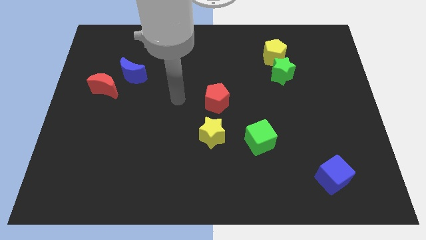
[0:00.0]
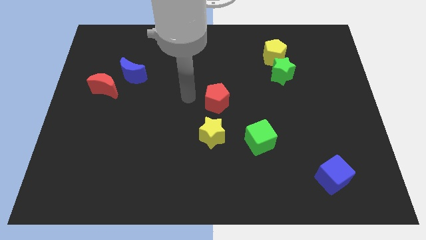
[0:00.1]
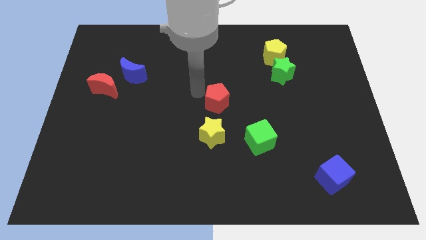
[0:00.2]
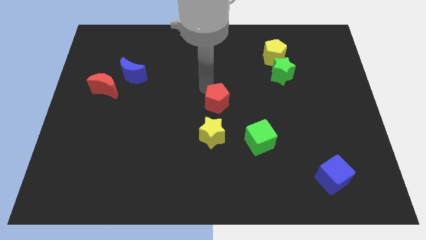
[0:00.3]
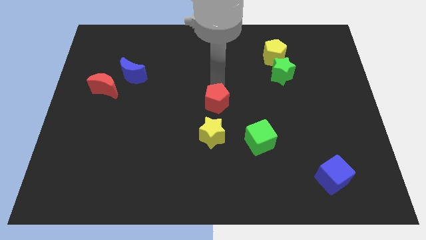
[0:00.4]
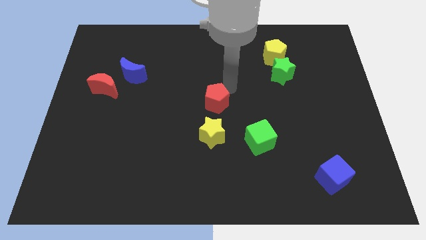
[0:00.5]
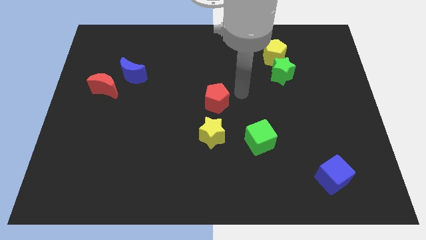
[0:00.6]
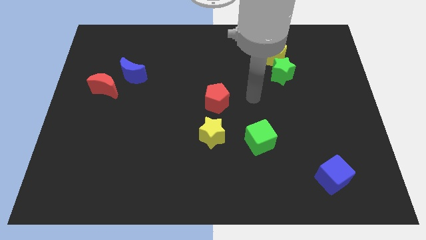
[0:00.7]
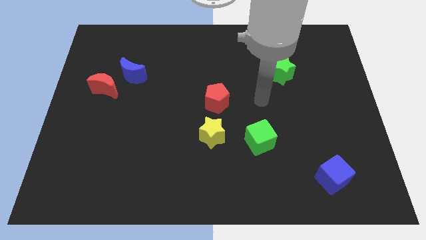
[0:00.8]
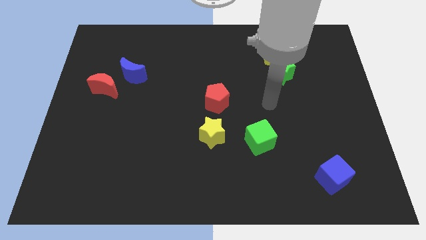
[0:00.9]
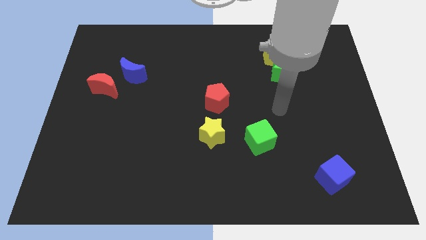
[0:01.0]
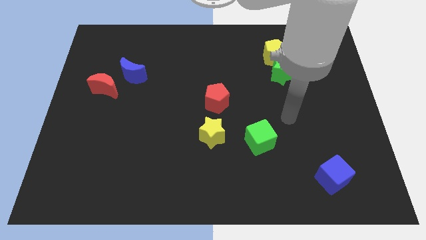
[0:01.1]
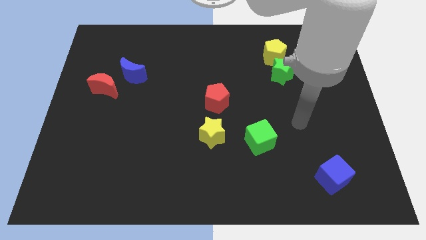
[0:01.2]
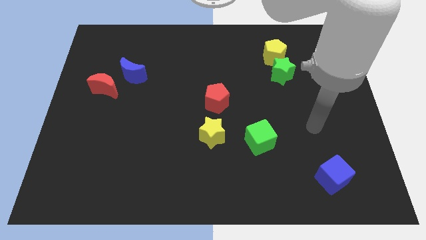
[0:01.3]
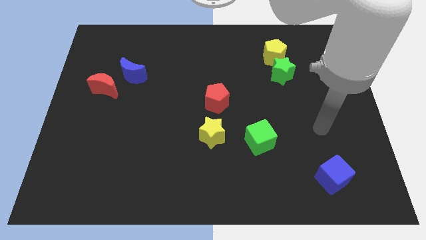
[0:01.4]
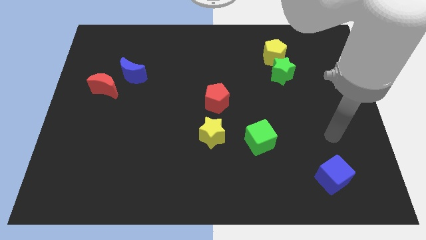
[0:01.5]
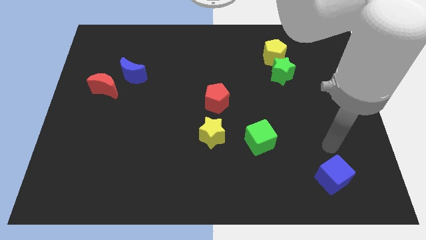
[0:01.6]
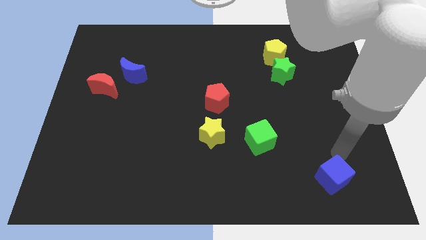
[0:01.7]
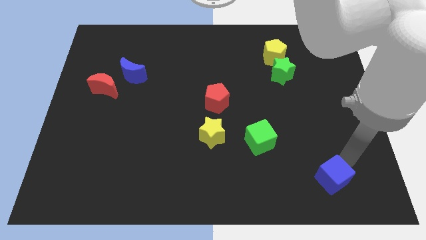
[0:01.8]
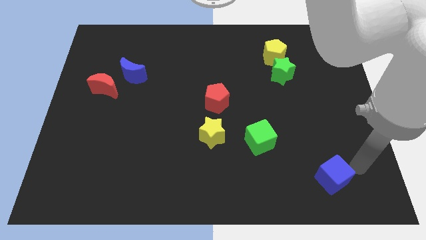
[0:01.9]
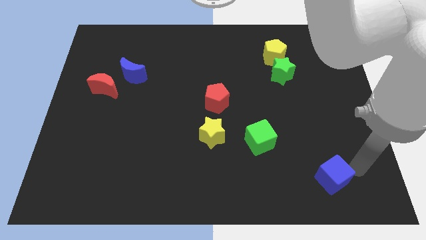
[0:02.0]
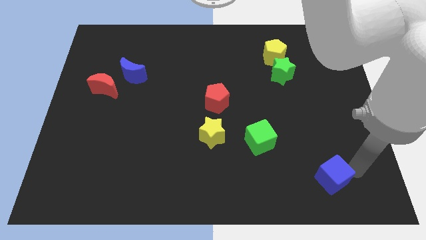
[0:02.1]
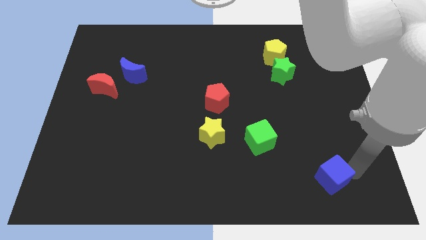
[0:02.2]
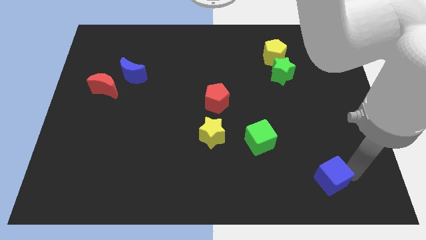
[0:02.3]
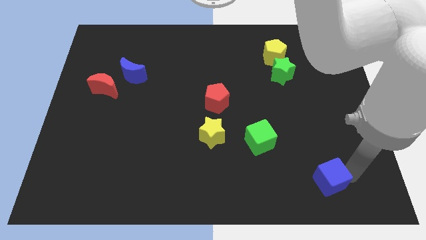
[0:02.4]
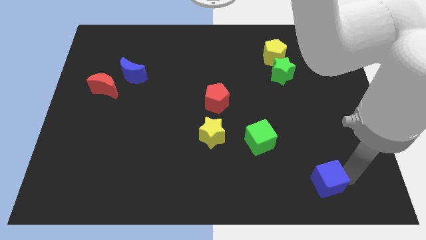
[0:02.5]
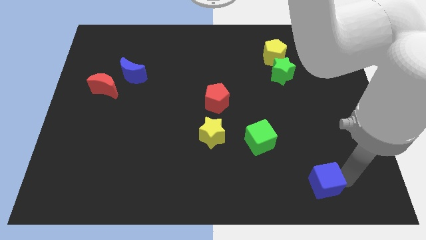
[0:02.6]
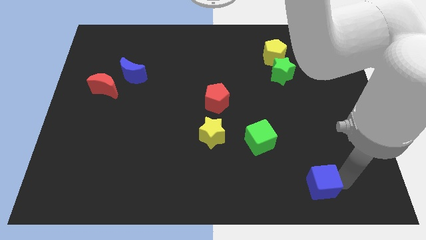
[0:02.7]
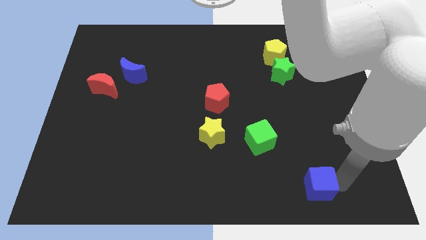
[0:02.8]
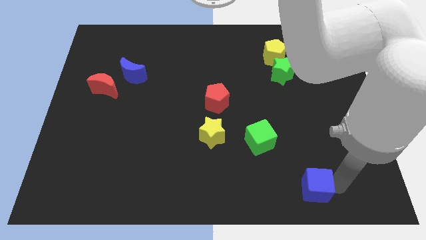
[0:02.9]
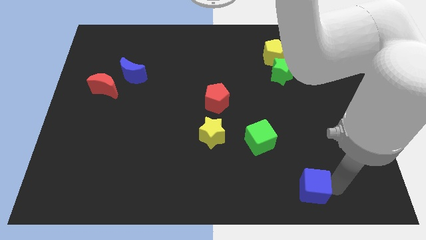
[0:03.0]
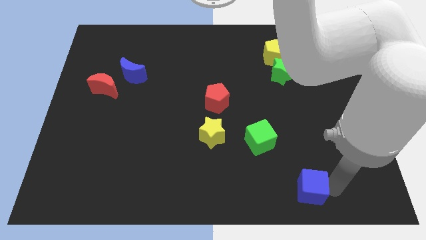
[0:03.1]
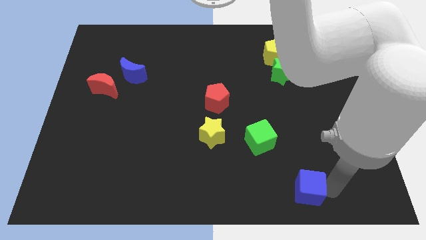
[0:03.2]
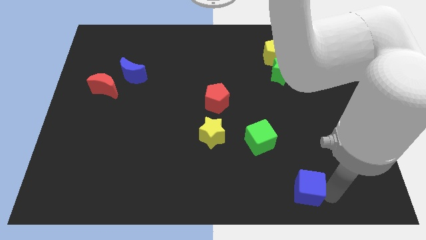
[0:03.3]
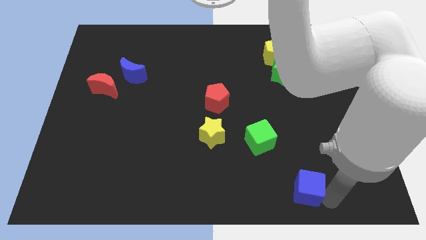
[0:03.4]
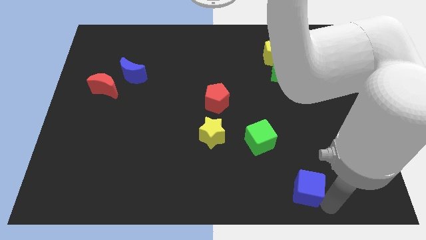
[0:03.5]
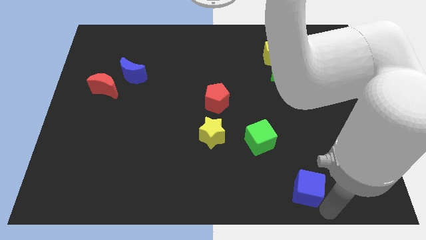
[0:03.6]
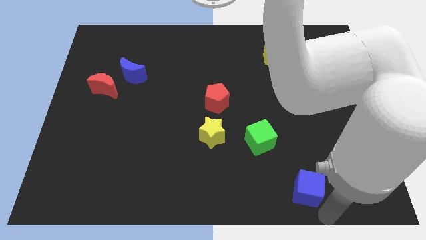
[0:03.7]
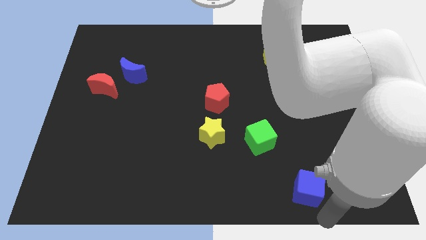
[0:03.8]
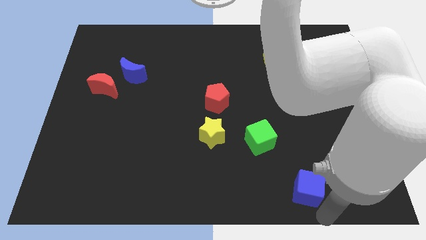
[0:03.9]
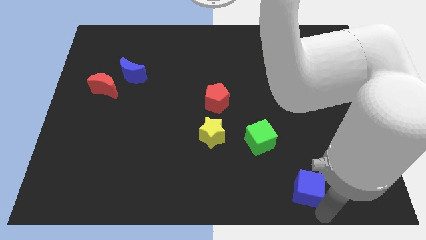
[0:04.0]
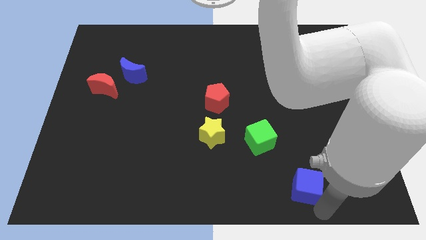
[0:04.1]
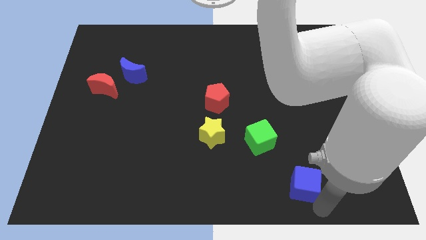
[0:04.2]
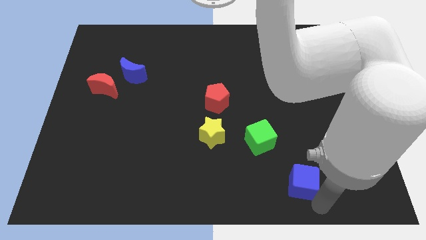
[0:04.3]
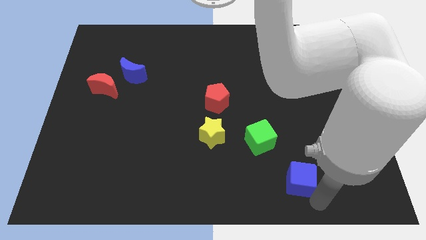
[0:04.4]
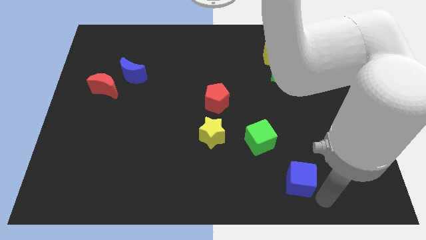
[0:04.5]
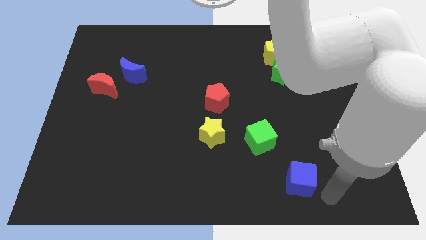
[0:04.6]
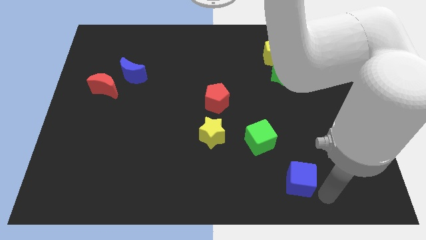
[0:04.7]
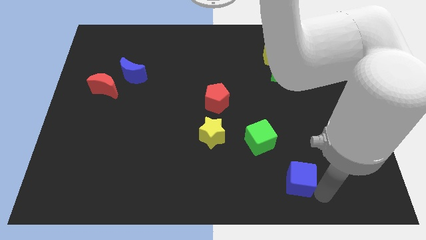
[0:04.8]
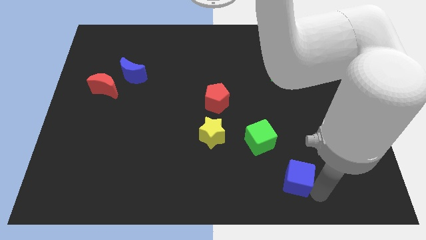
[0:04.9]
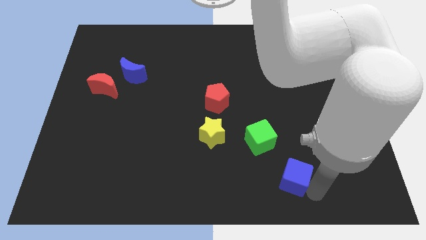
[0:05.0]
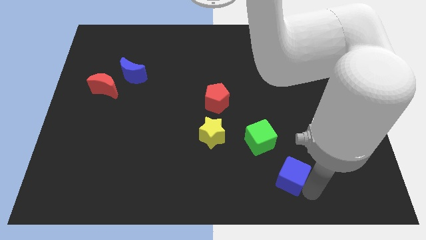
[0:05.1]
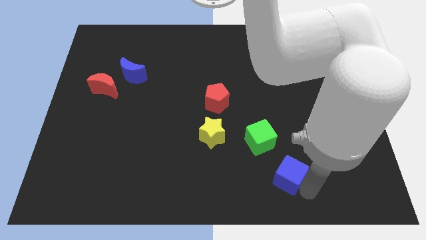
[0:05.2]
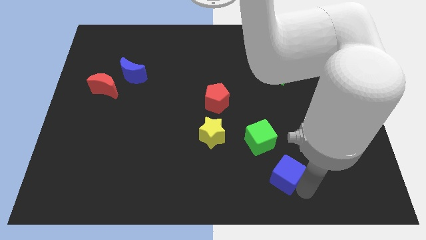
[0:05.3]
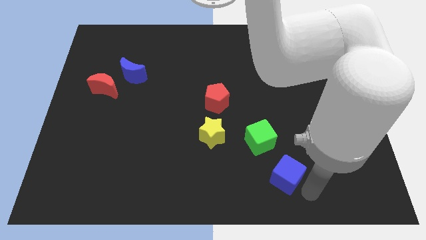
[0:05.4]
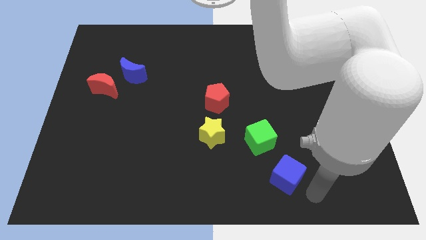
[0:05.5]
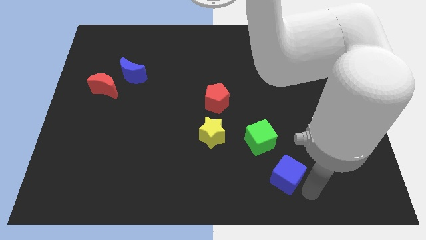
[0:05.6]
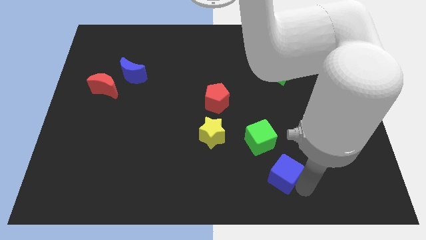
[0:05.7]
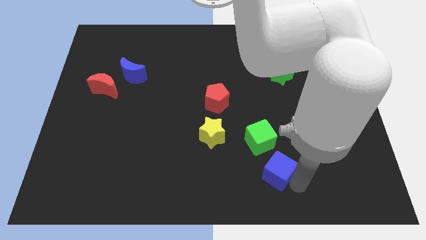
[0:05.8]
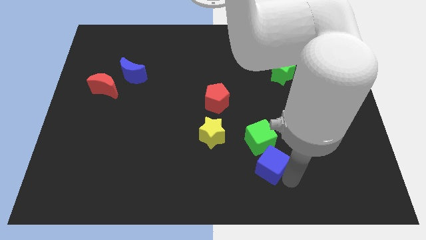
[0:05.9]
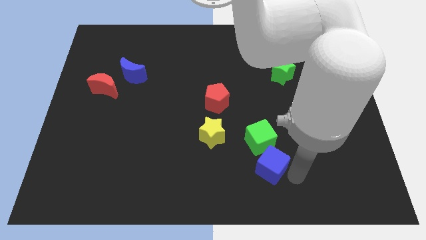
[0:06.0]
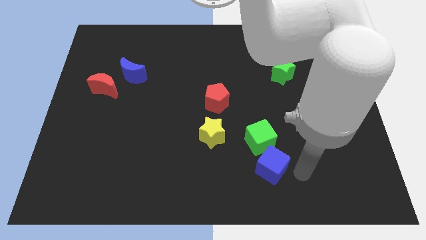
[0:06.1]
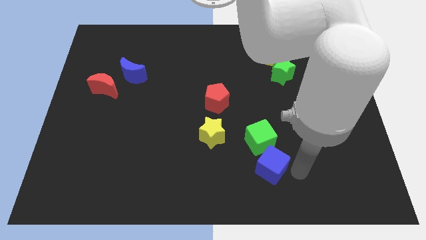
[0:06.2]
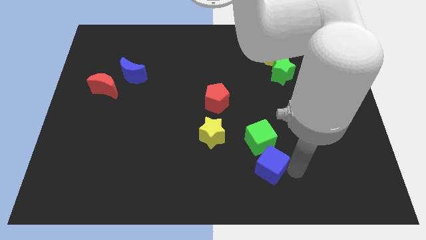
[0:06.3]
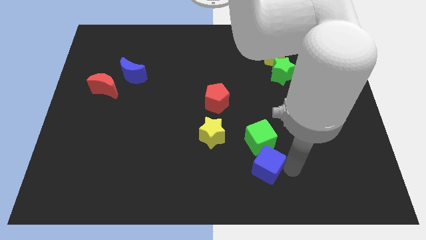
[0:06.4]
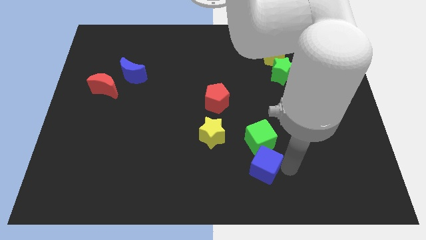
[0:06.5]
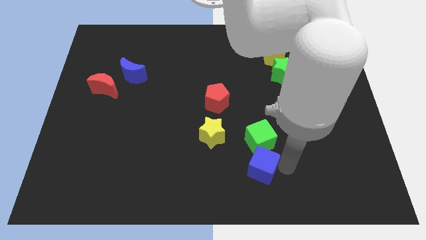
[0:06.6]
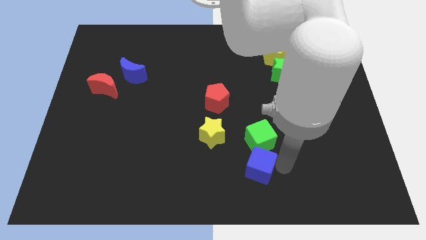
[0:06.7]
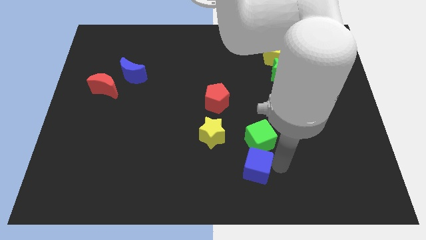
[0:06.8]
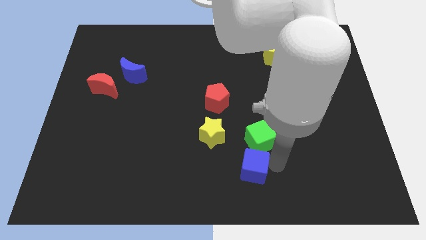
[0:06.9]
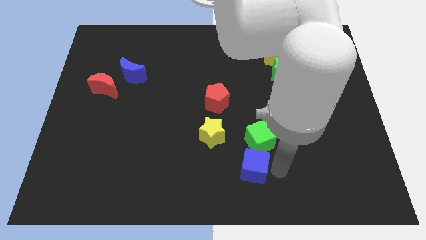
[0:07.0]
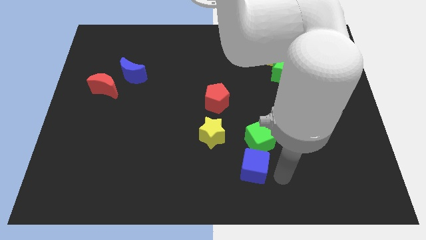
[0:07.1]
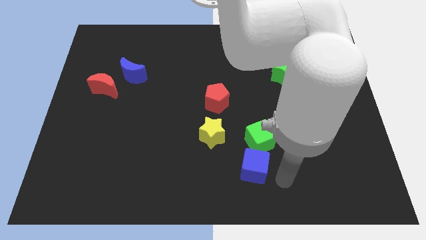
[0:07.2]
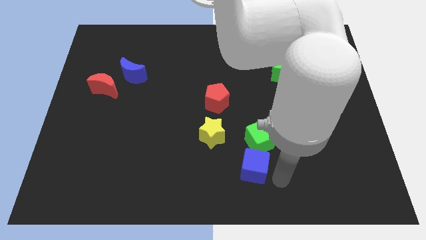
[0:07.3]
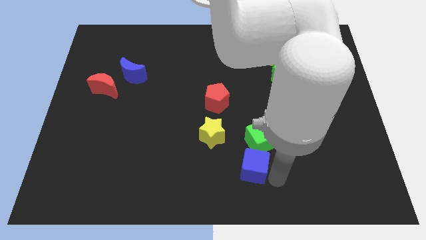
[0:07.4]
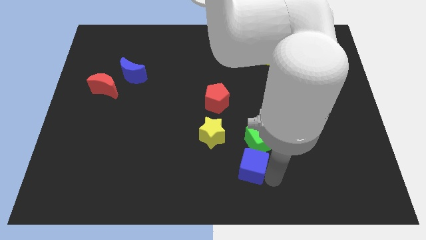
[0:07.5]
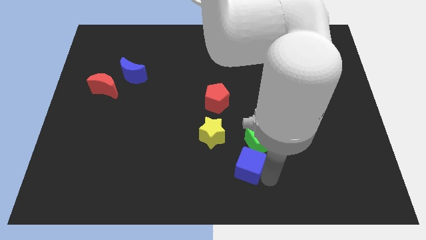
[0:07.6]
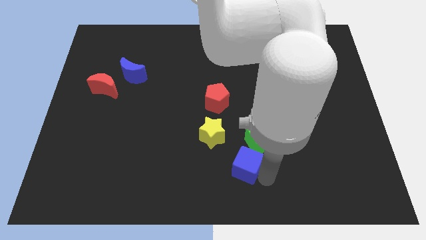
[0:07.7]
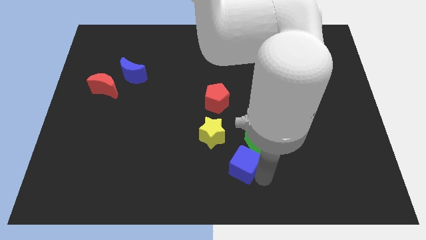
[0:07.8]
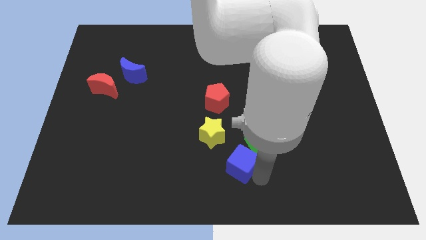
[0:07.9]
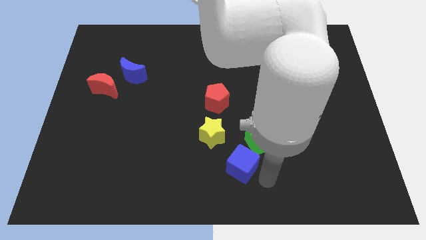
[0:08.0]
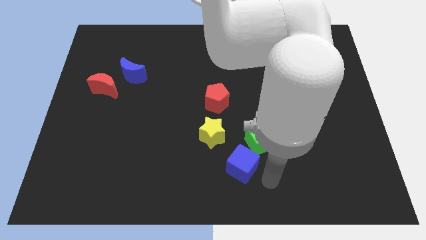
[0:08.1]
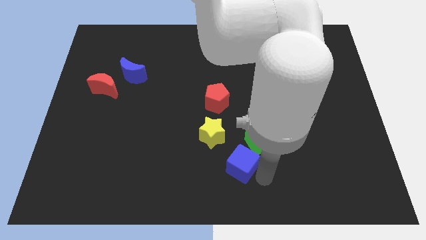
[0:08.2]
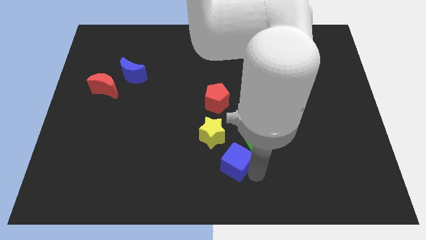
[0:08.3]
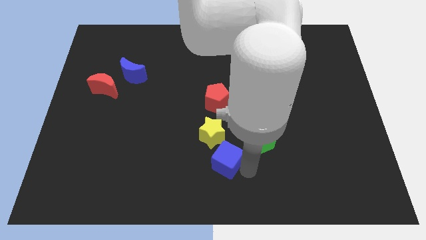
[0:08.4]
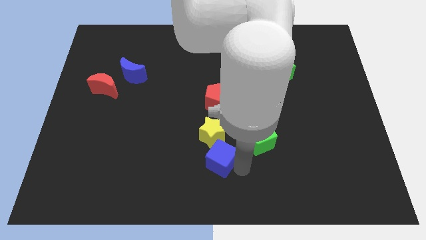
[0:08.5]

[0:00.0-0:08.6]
slide the blue cube just left of the green cube
